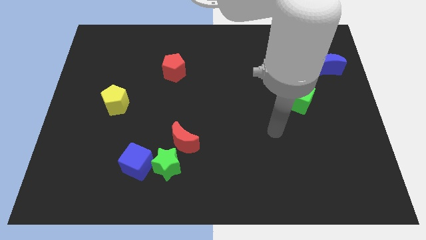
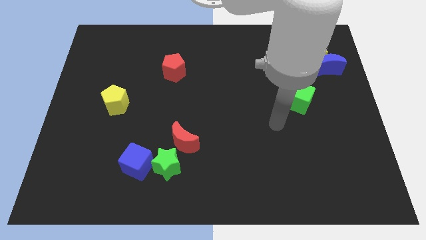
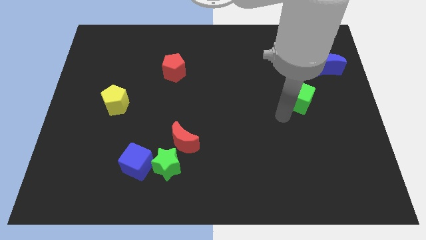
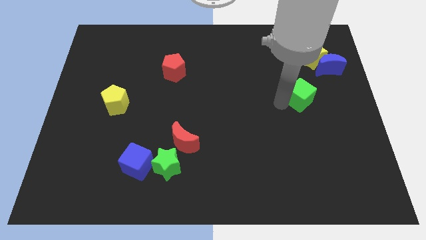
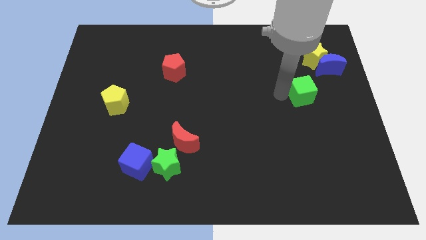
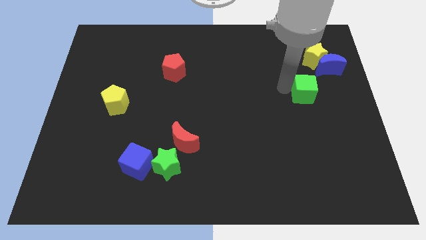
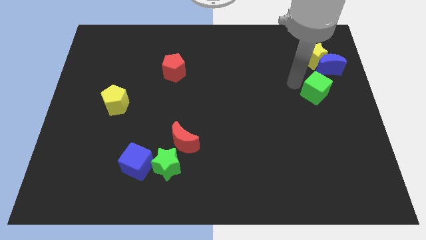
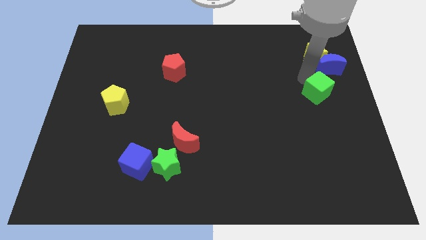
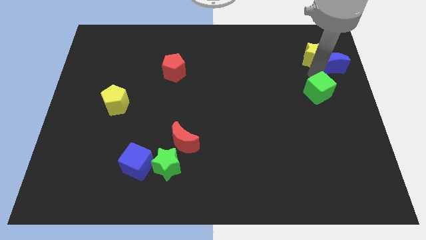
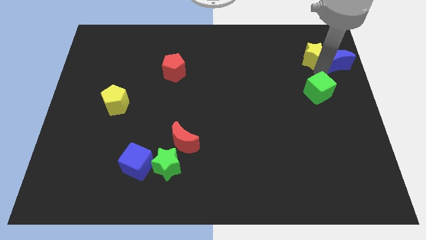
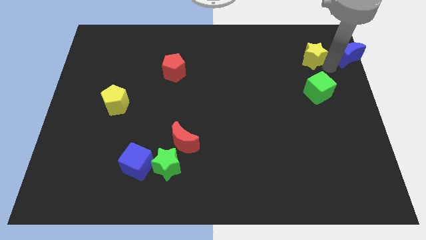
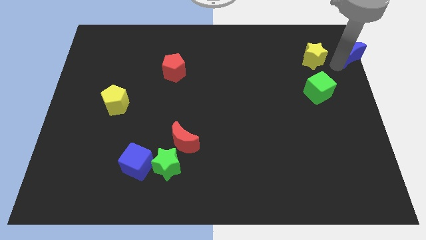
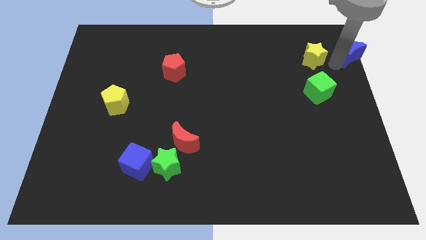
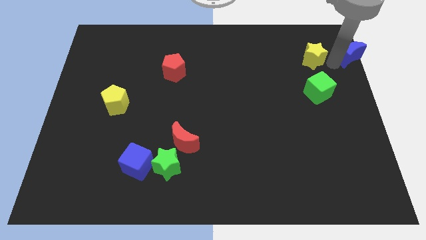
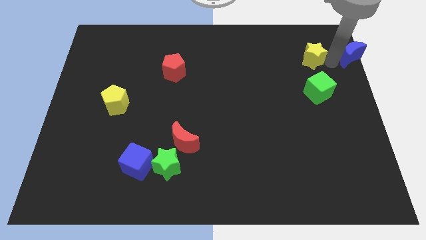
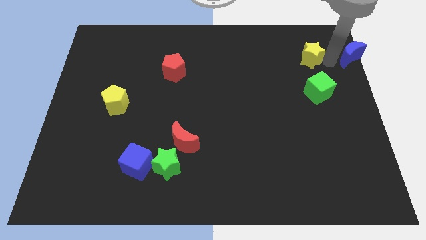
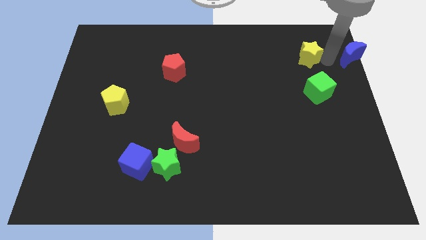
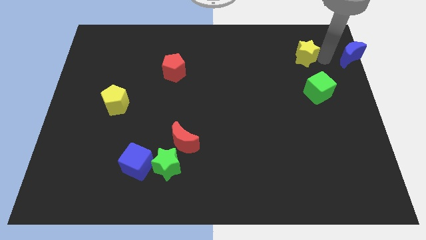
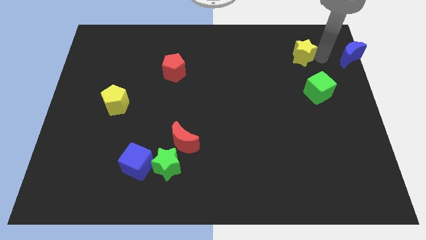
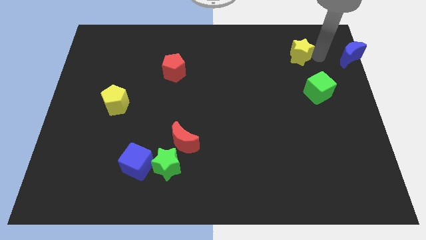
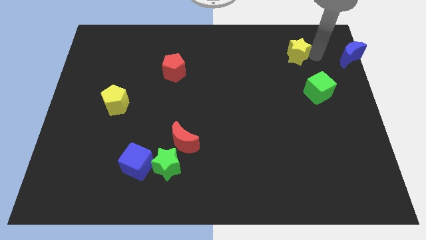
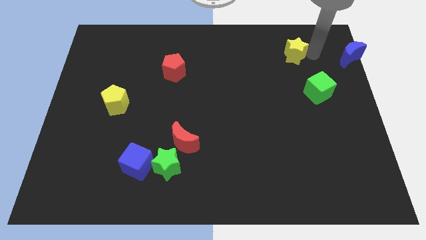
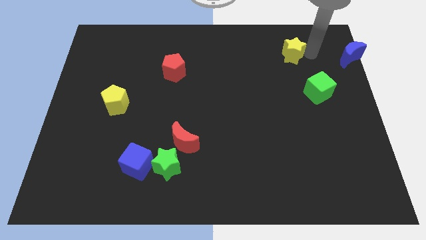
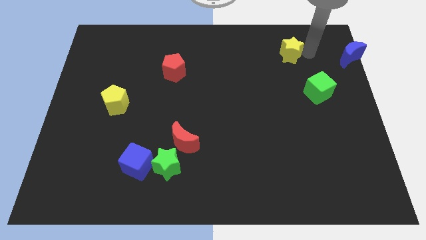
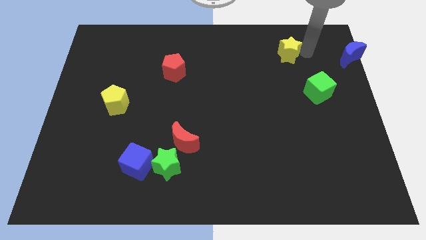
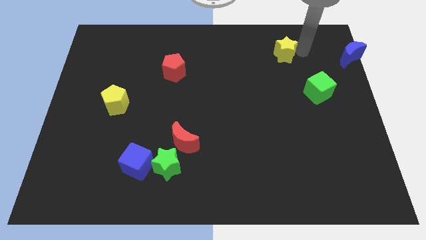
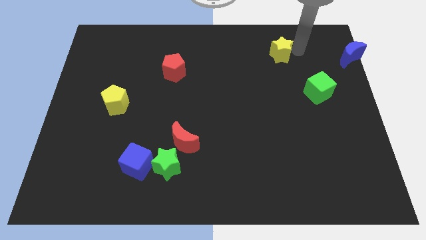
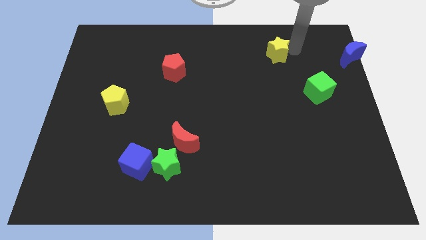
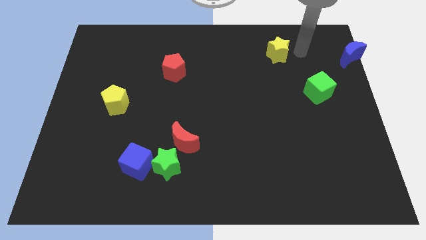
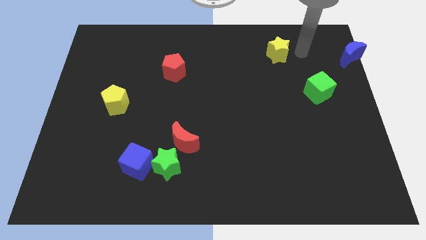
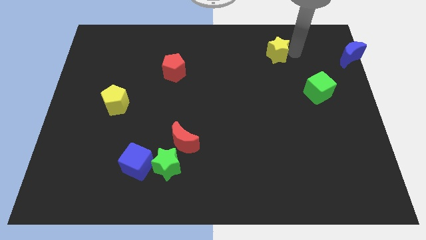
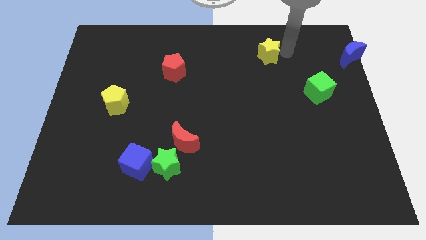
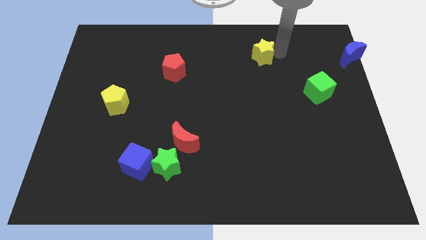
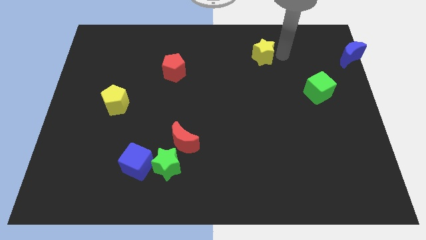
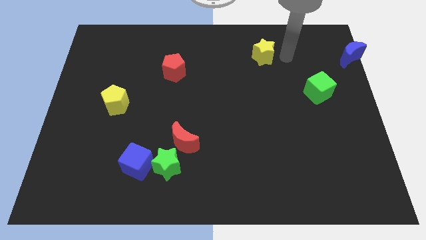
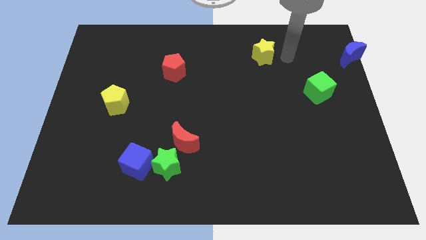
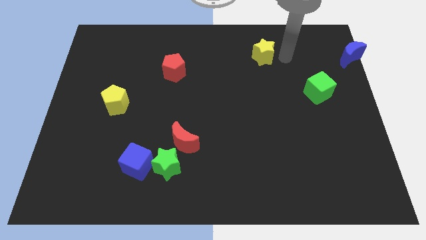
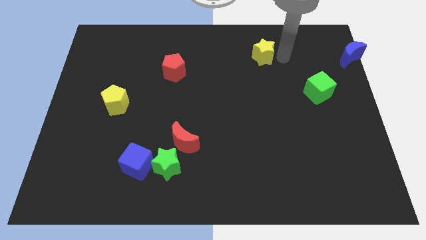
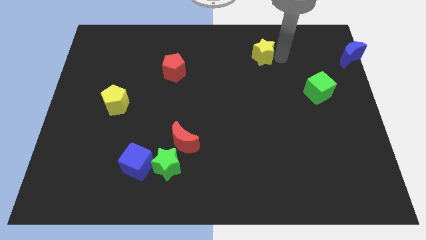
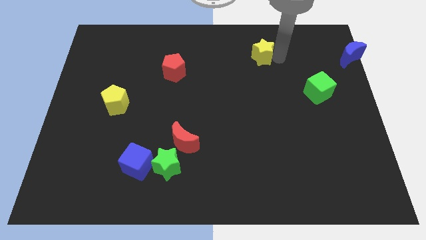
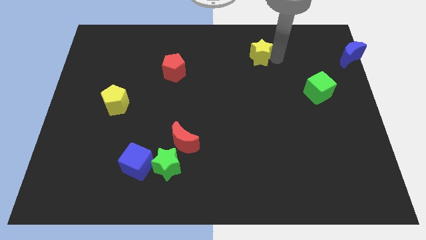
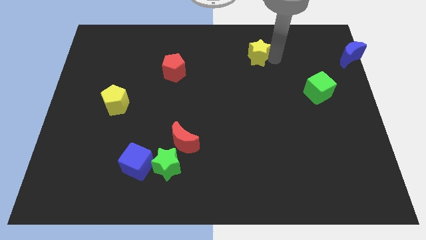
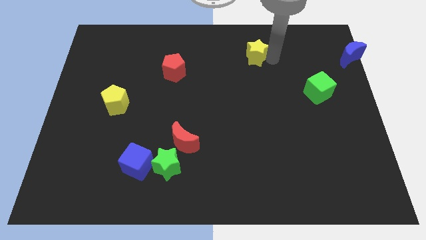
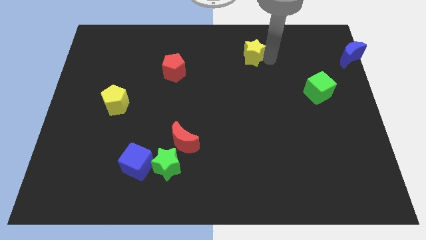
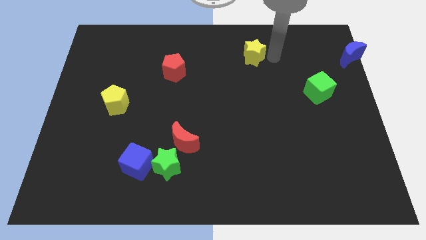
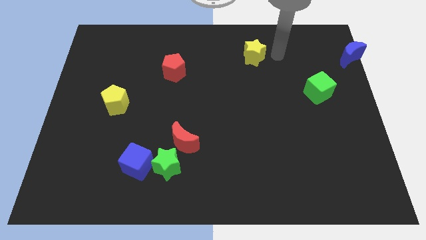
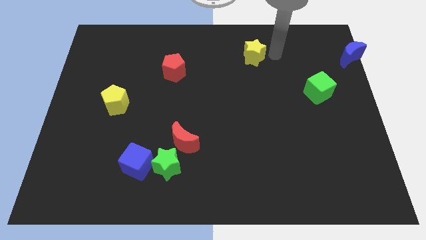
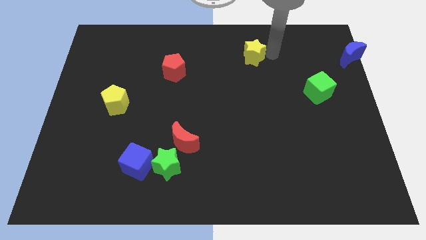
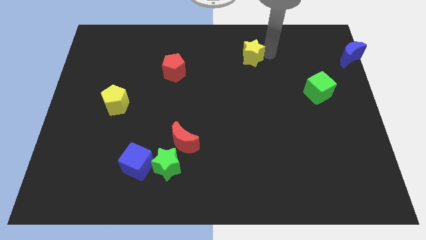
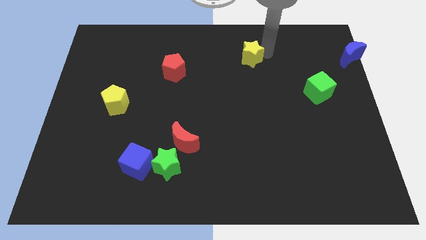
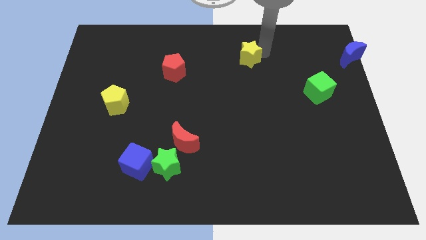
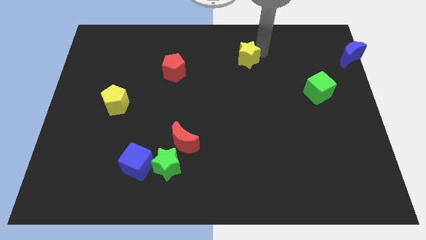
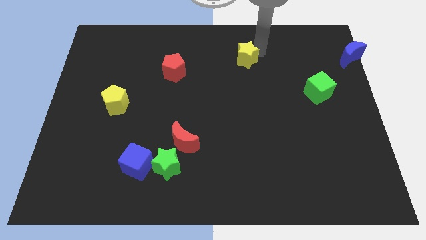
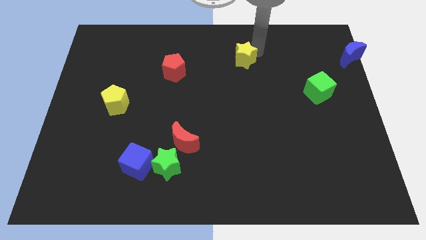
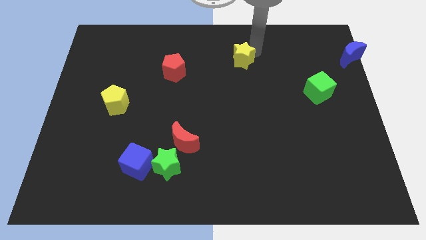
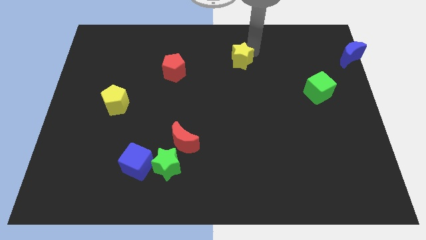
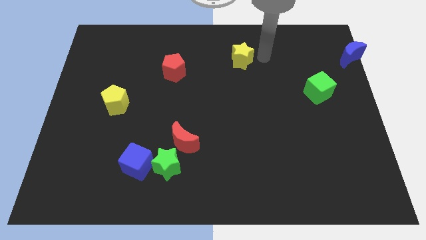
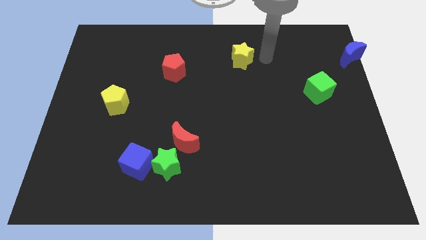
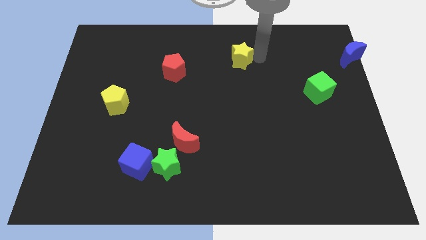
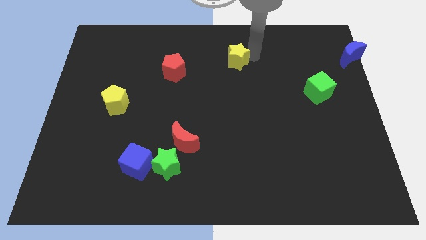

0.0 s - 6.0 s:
slide the yellow star to the left

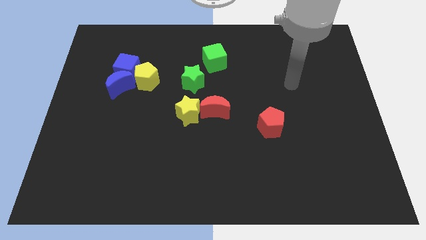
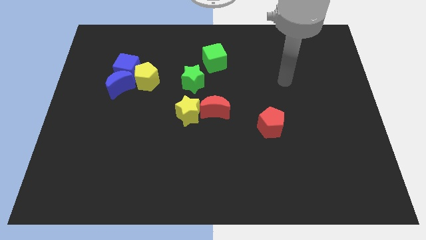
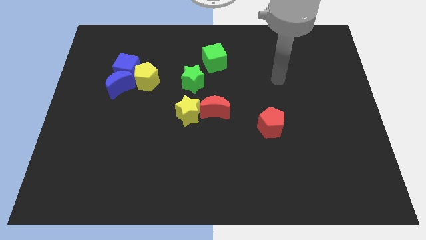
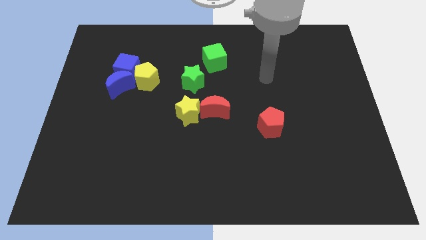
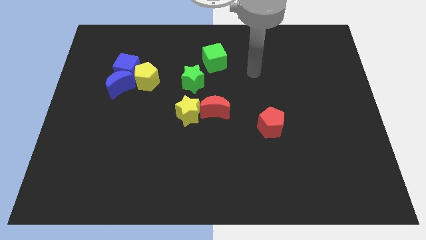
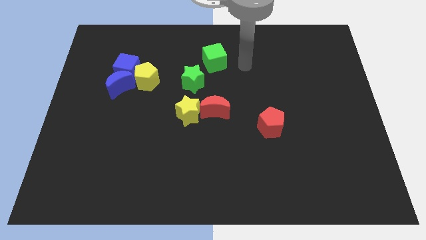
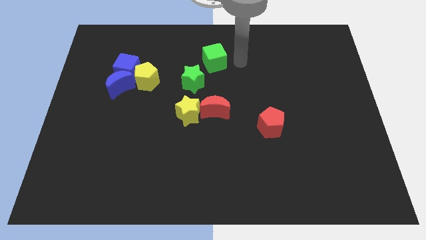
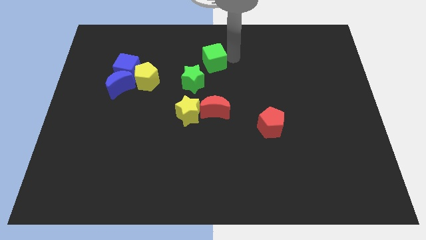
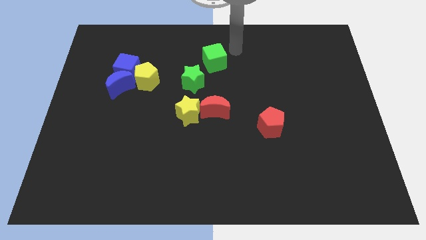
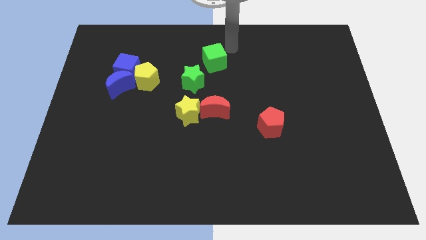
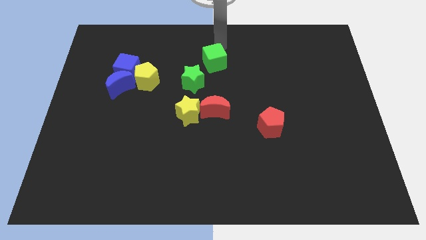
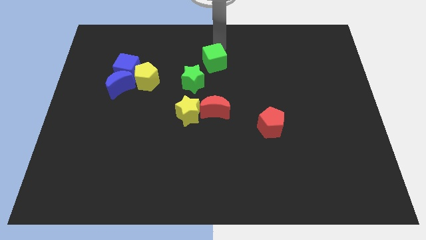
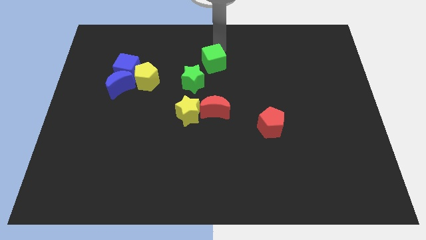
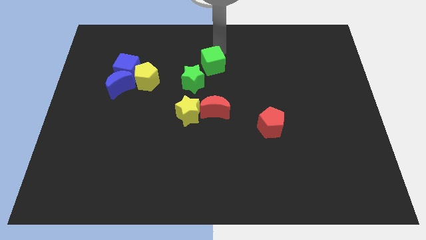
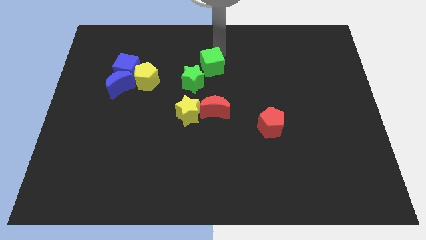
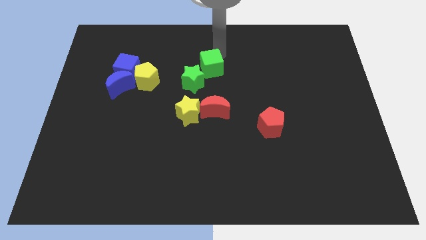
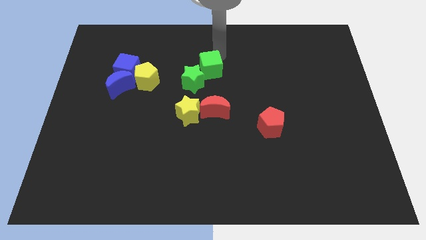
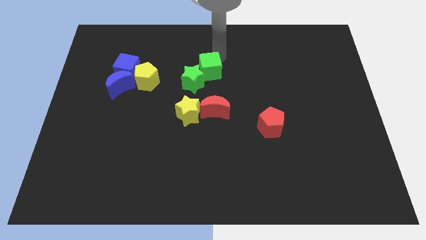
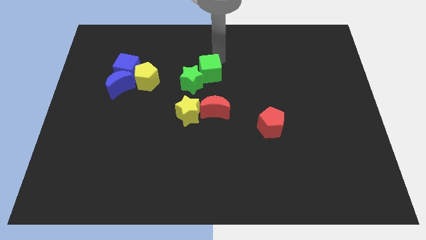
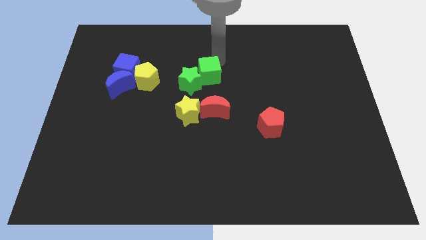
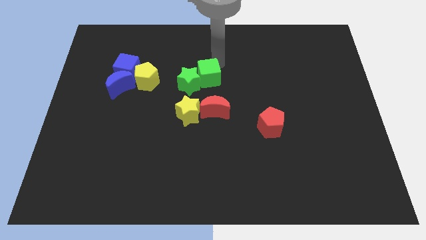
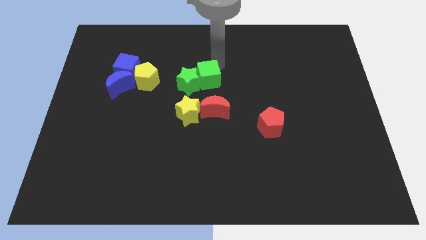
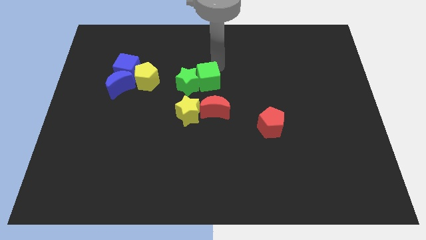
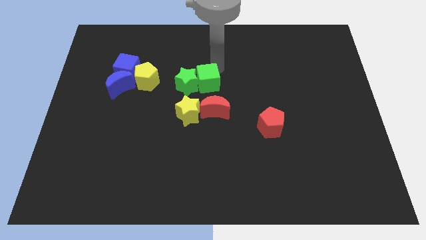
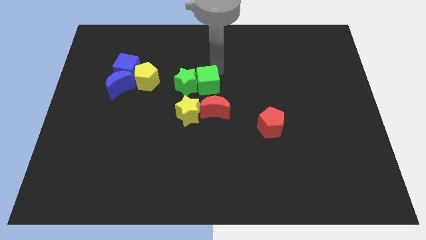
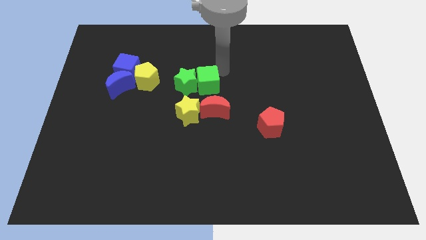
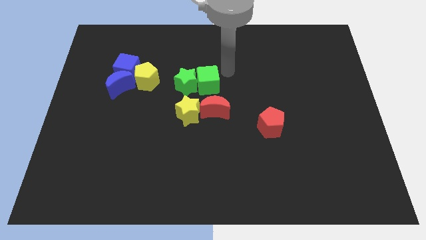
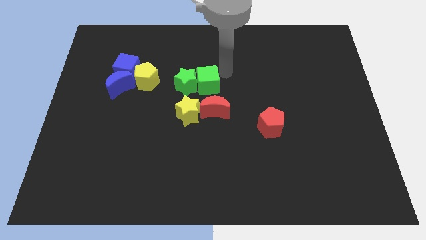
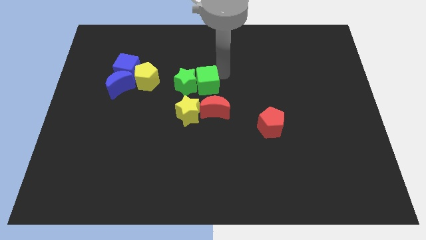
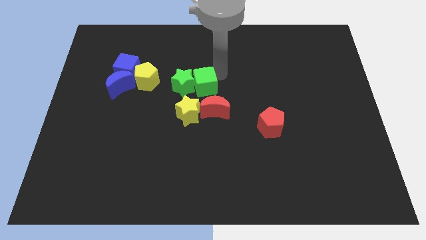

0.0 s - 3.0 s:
push the green cube down and left a bit
